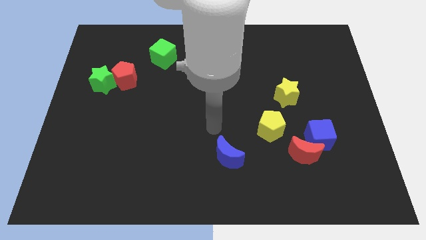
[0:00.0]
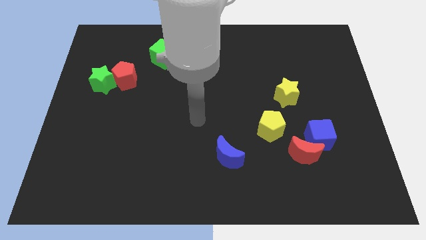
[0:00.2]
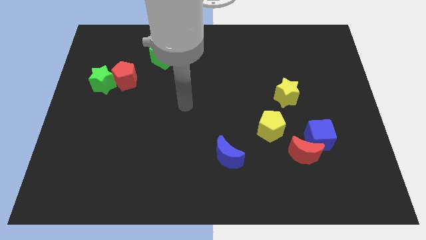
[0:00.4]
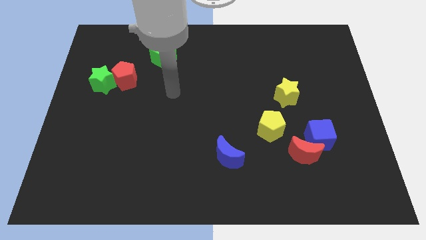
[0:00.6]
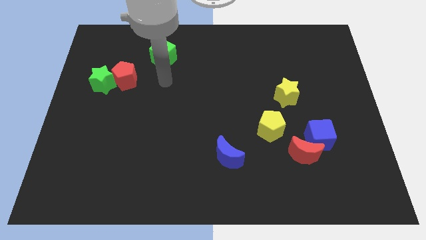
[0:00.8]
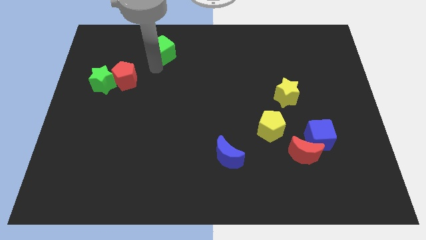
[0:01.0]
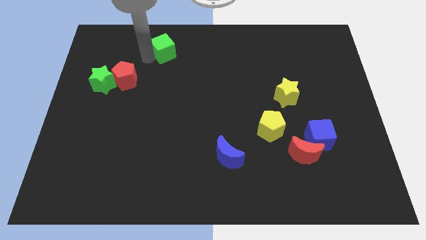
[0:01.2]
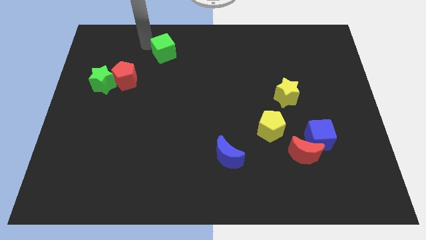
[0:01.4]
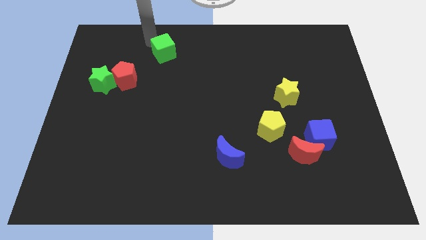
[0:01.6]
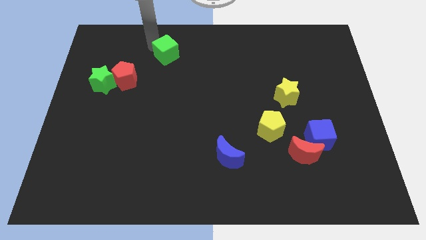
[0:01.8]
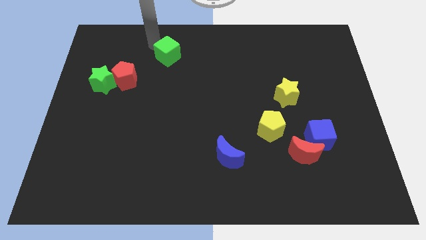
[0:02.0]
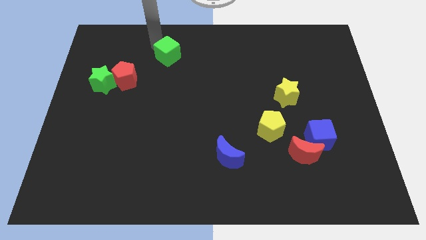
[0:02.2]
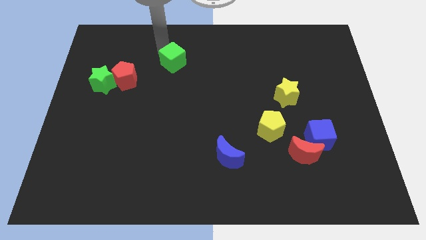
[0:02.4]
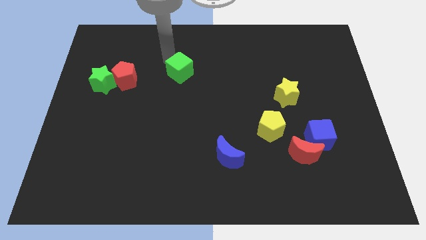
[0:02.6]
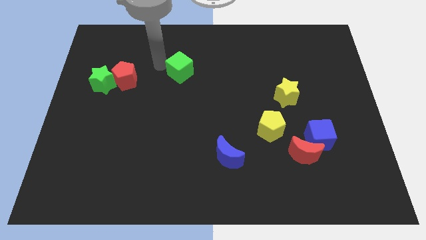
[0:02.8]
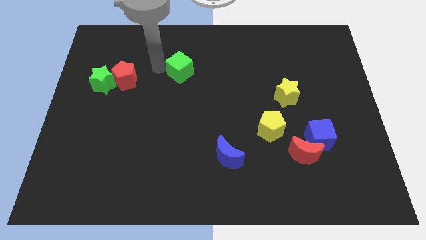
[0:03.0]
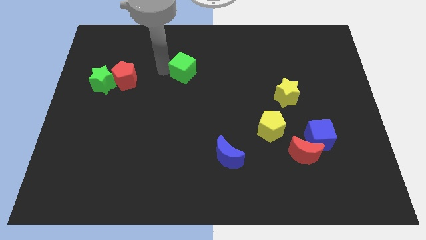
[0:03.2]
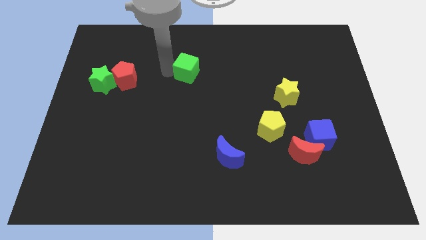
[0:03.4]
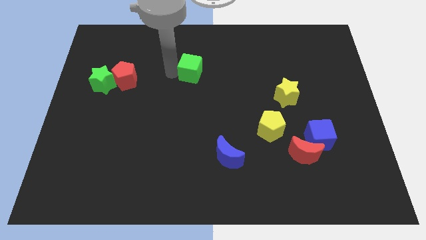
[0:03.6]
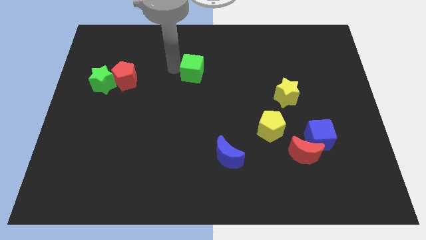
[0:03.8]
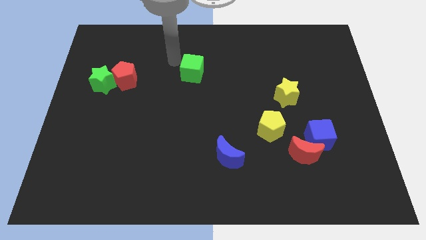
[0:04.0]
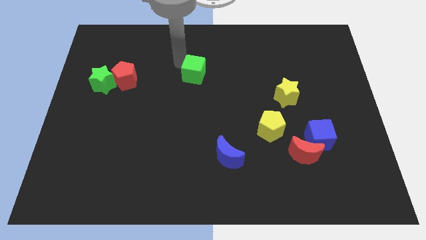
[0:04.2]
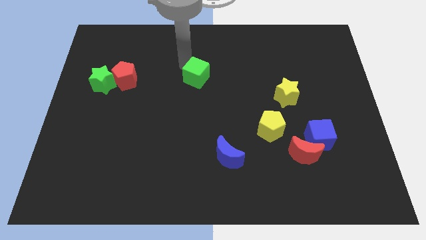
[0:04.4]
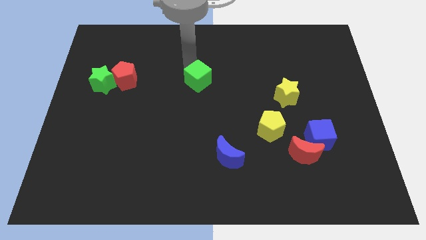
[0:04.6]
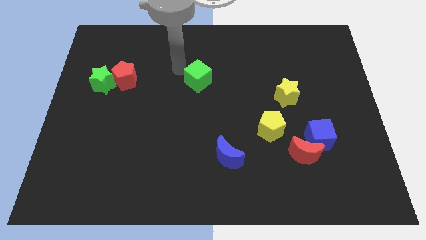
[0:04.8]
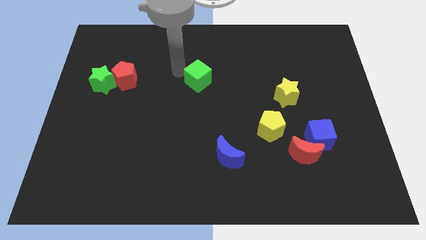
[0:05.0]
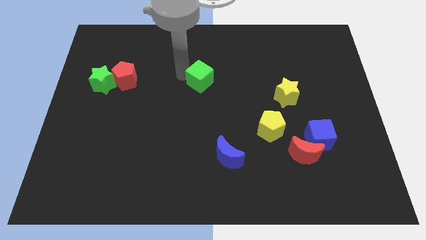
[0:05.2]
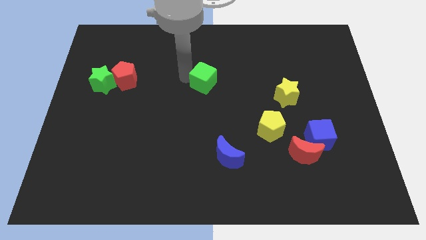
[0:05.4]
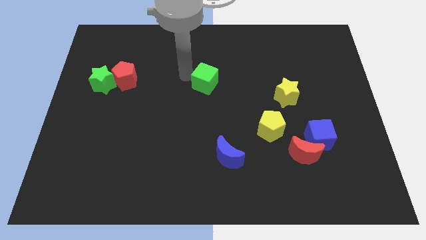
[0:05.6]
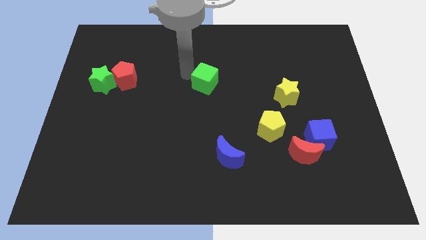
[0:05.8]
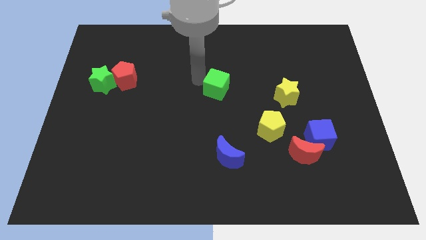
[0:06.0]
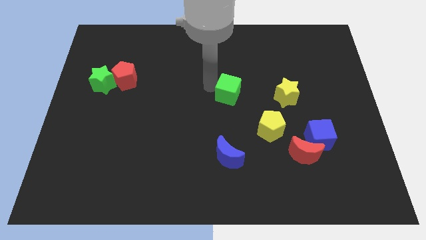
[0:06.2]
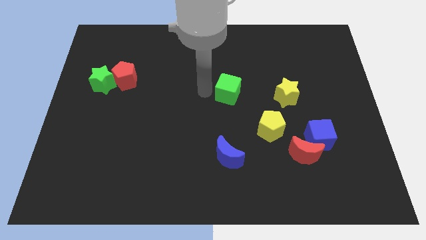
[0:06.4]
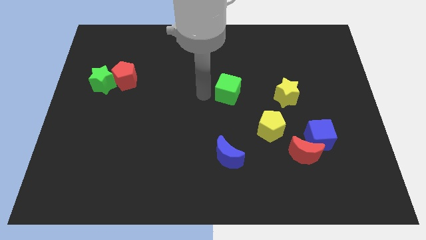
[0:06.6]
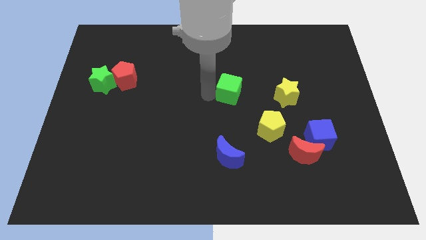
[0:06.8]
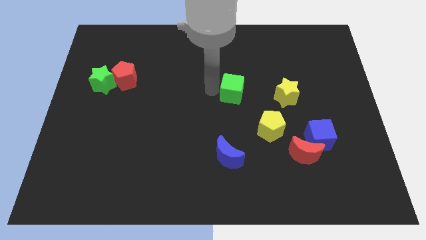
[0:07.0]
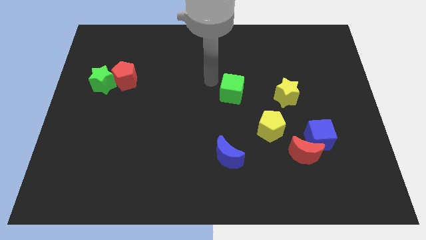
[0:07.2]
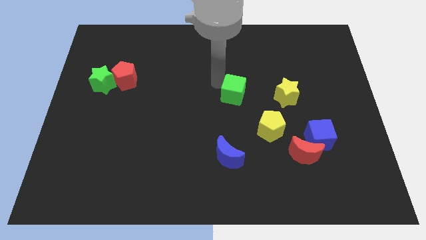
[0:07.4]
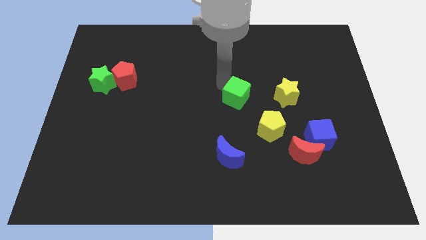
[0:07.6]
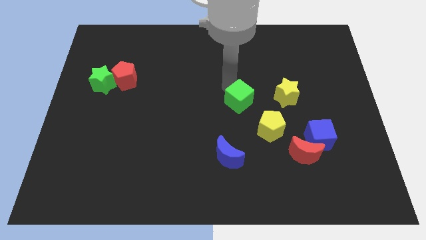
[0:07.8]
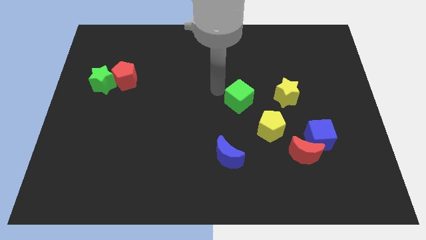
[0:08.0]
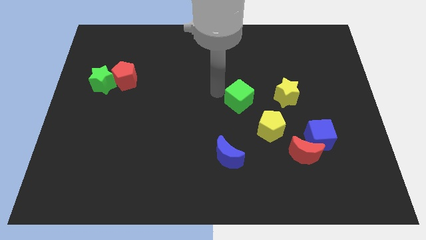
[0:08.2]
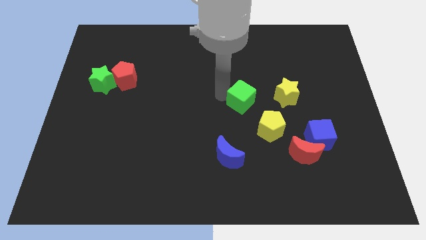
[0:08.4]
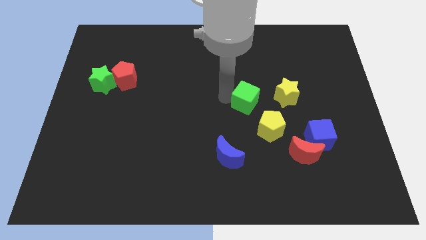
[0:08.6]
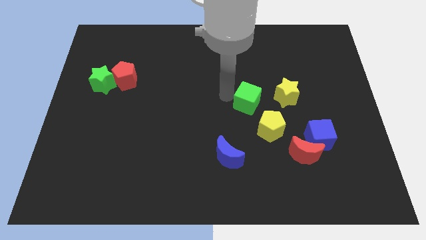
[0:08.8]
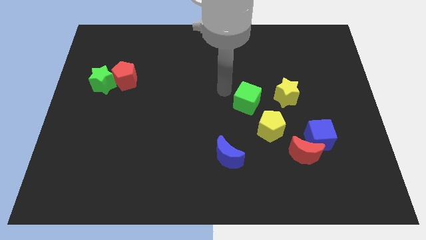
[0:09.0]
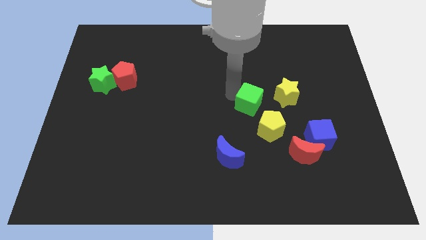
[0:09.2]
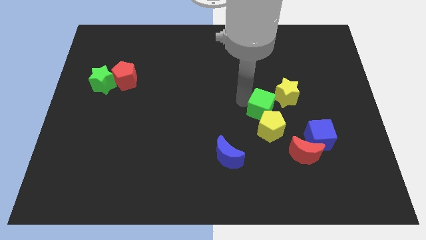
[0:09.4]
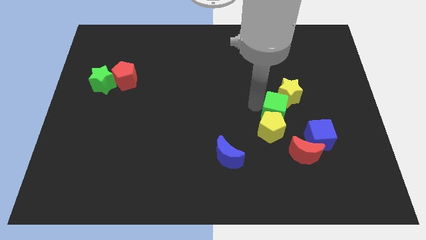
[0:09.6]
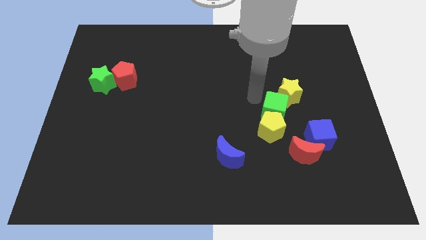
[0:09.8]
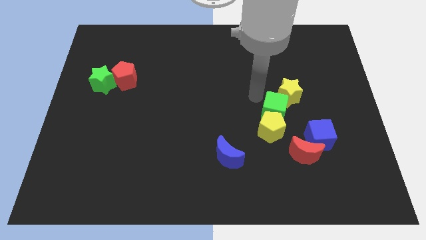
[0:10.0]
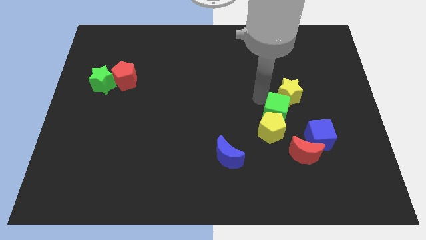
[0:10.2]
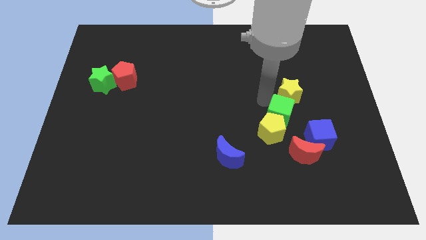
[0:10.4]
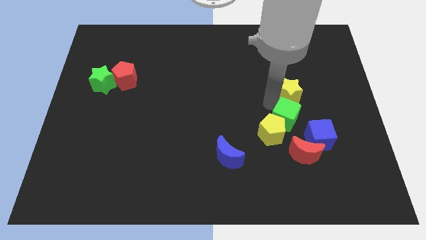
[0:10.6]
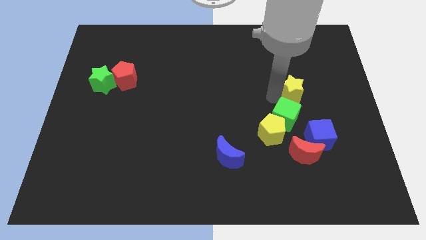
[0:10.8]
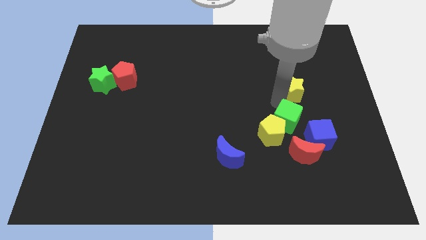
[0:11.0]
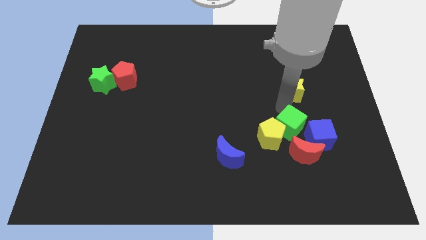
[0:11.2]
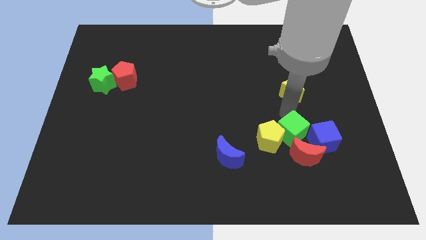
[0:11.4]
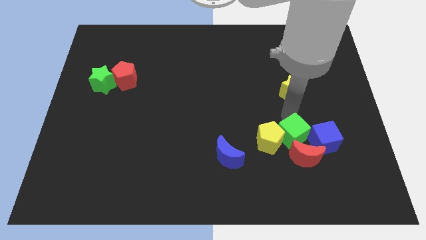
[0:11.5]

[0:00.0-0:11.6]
push the green cube next to the red moon

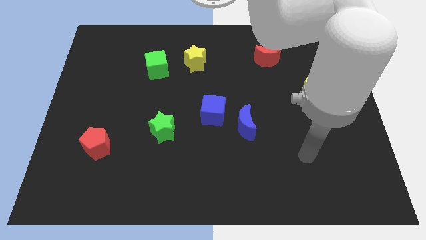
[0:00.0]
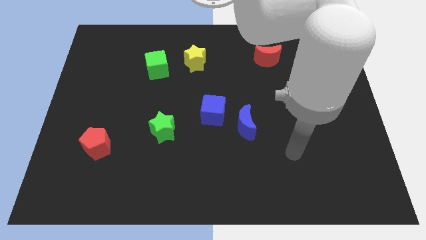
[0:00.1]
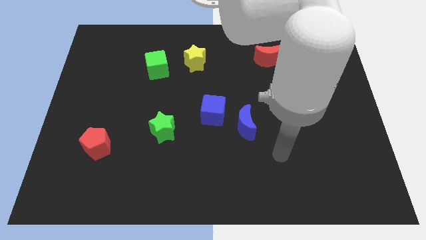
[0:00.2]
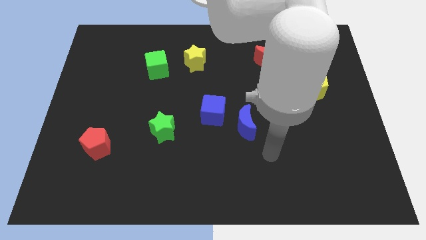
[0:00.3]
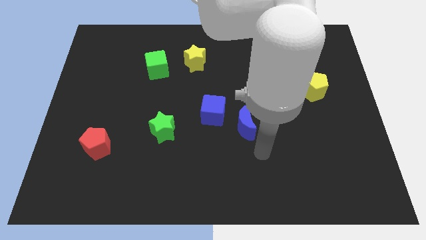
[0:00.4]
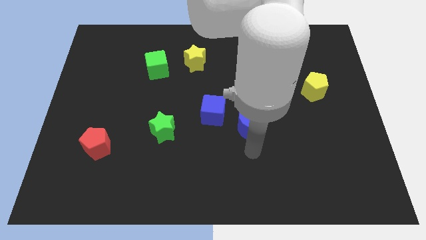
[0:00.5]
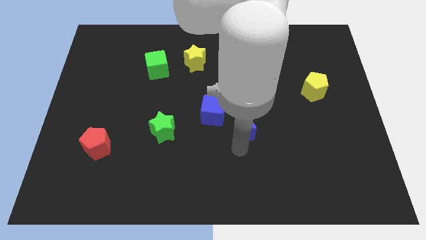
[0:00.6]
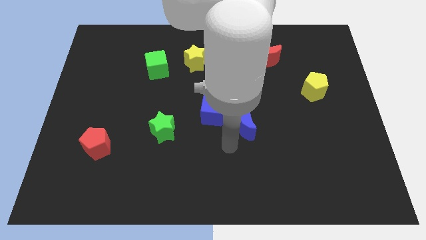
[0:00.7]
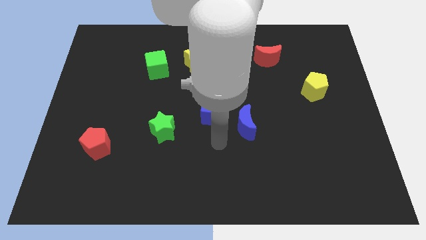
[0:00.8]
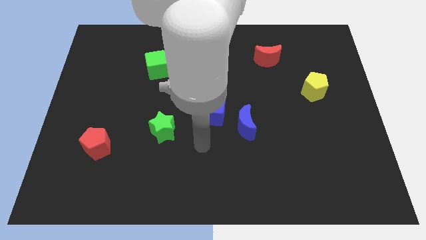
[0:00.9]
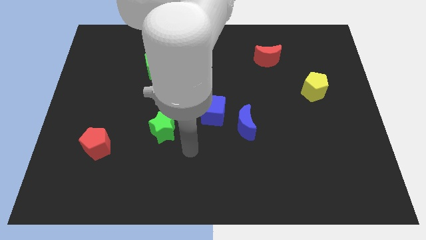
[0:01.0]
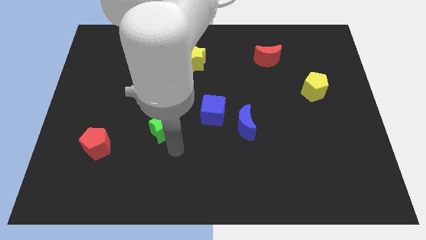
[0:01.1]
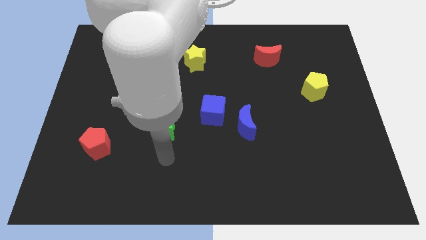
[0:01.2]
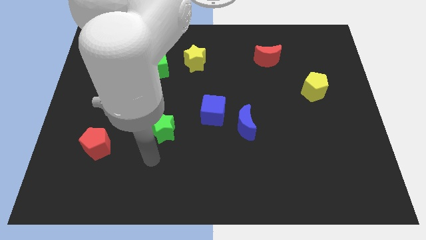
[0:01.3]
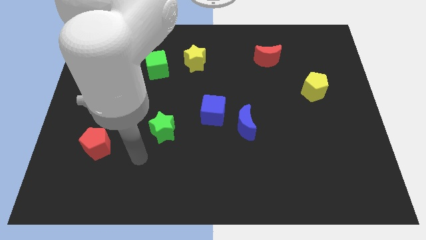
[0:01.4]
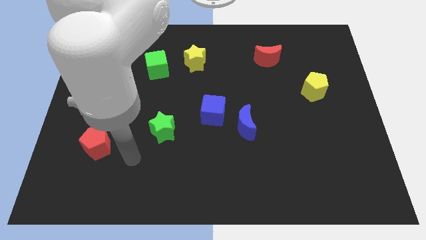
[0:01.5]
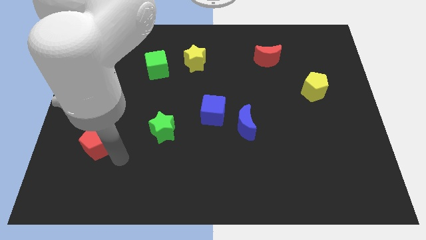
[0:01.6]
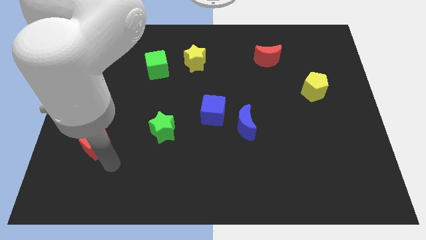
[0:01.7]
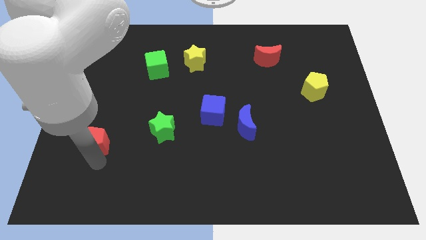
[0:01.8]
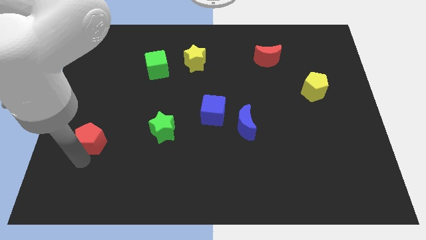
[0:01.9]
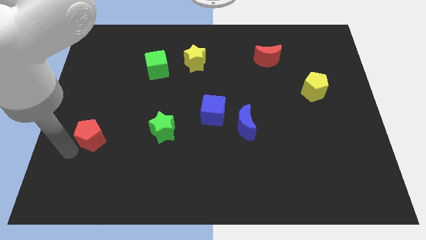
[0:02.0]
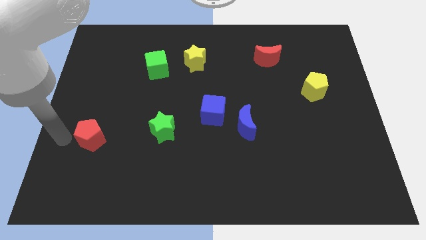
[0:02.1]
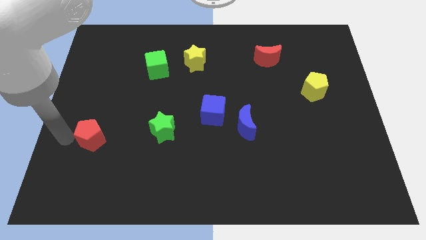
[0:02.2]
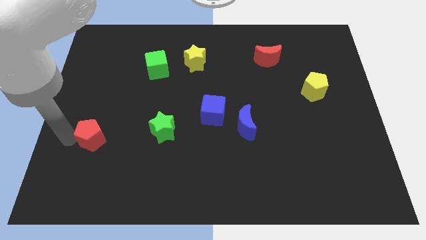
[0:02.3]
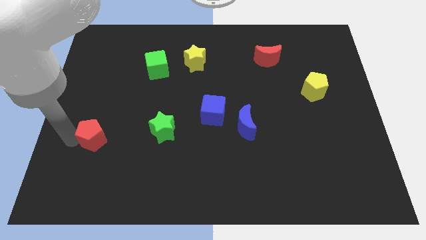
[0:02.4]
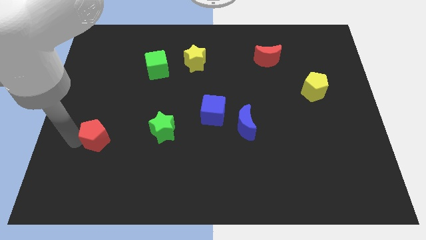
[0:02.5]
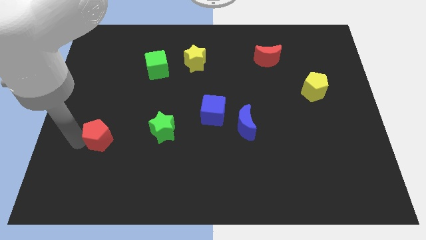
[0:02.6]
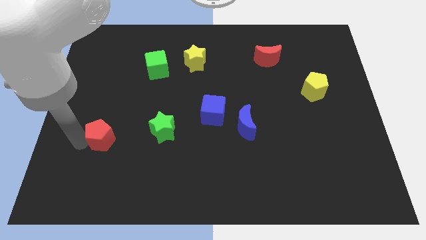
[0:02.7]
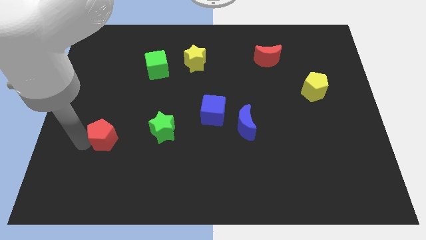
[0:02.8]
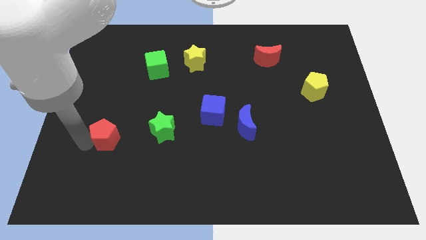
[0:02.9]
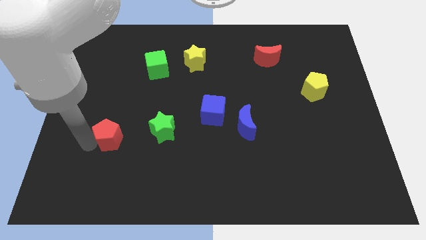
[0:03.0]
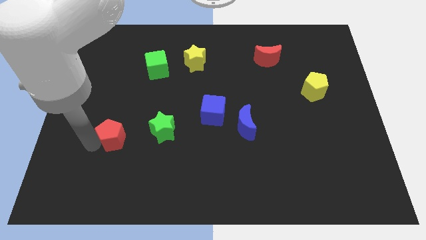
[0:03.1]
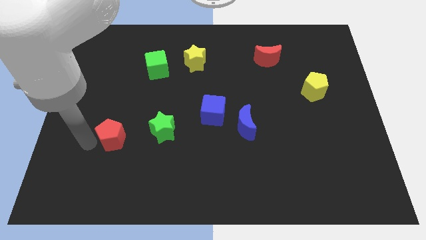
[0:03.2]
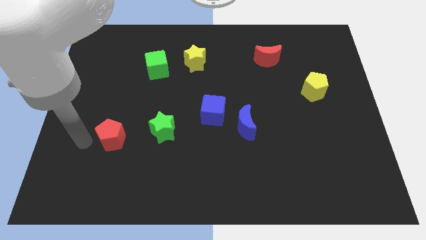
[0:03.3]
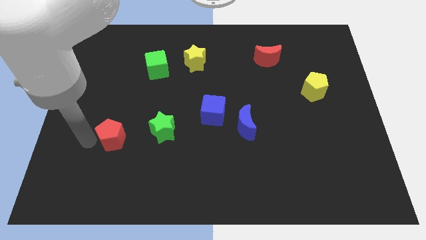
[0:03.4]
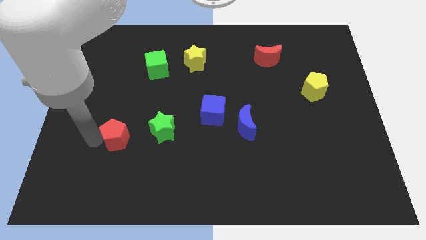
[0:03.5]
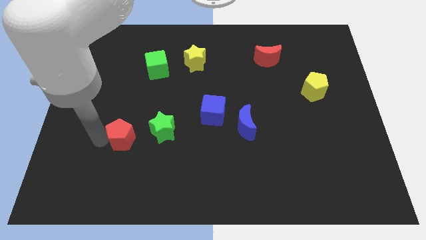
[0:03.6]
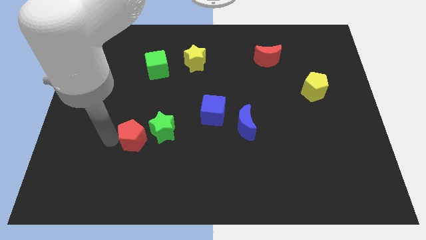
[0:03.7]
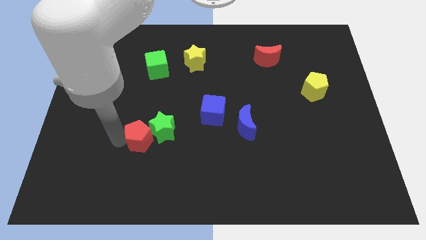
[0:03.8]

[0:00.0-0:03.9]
put the red pentagon close to the green star
